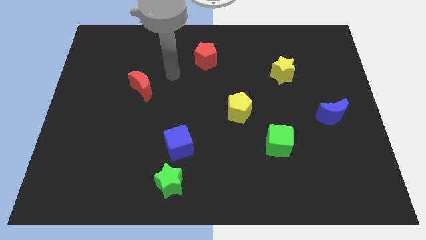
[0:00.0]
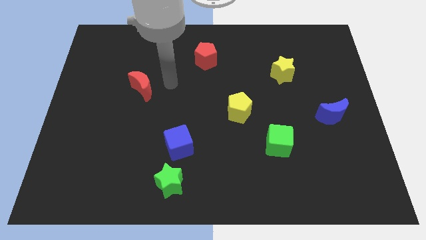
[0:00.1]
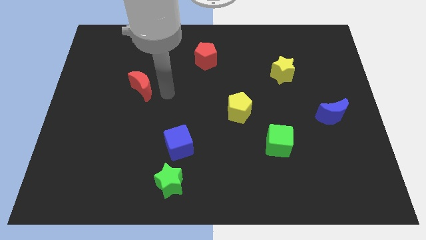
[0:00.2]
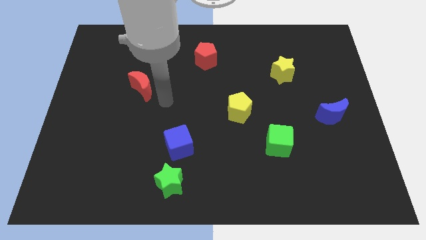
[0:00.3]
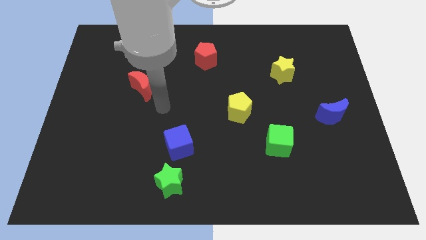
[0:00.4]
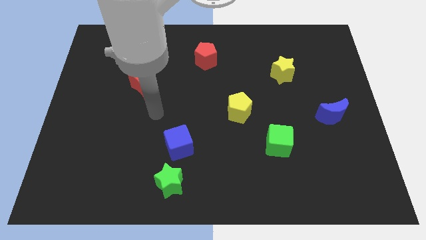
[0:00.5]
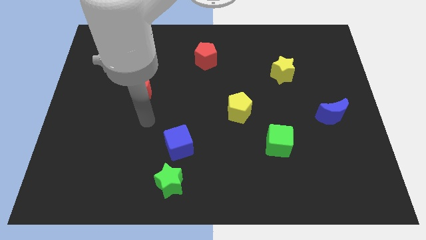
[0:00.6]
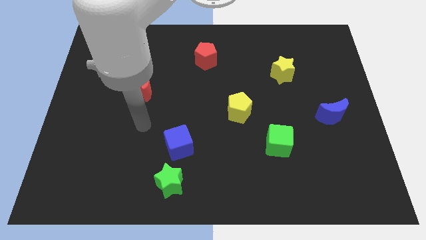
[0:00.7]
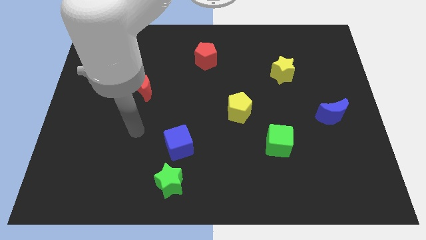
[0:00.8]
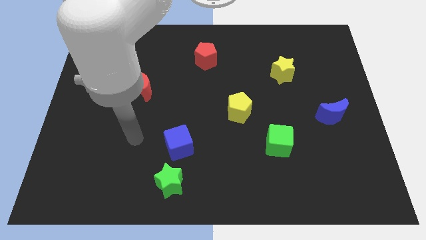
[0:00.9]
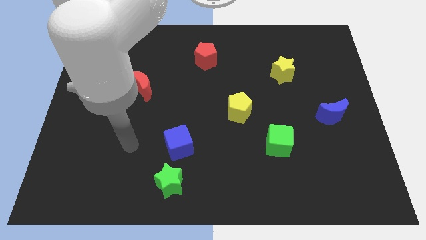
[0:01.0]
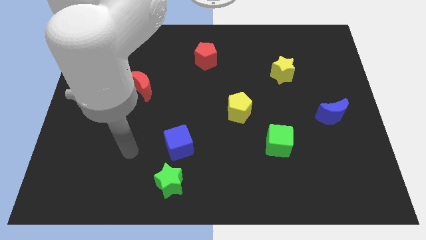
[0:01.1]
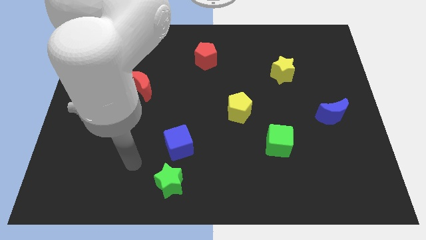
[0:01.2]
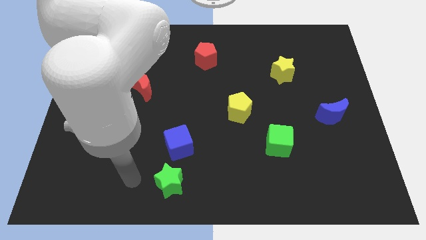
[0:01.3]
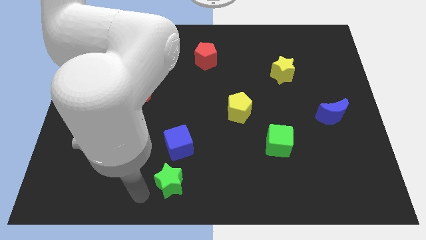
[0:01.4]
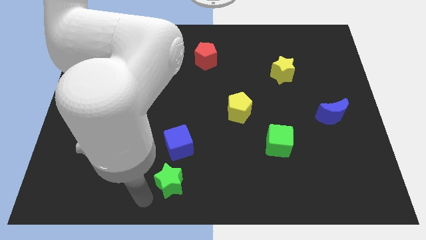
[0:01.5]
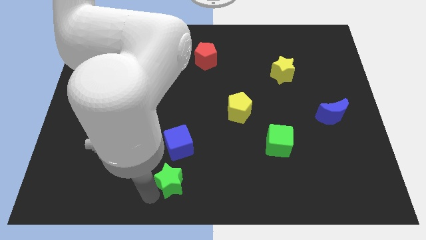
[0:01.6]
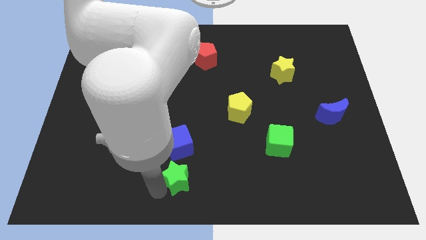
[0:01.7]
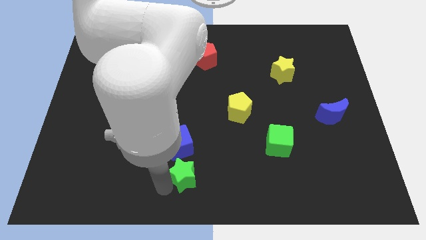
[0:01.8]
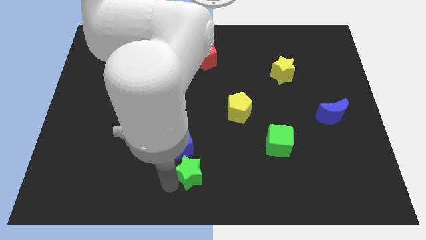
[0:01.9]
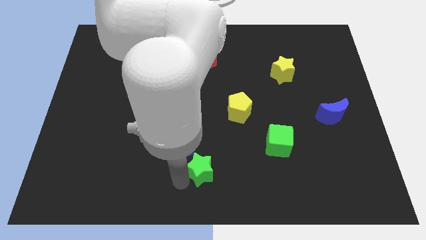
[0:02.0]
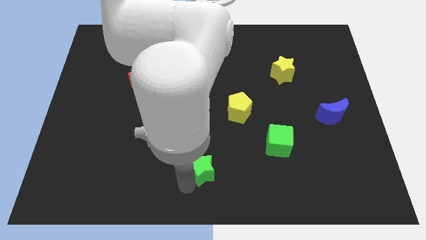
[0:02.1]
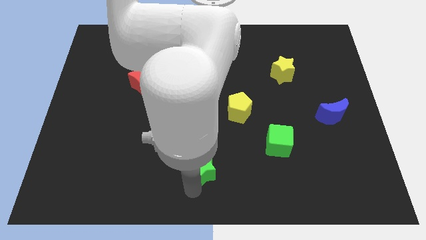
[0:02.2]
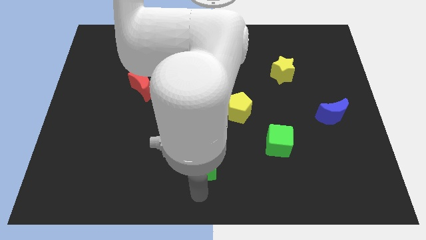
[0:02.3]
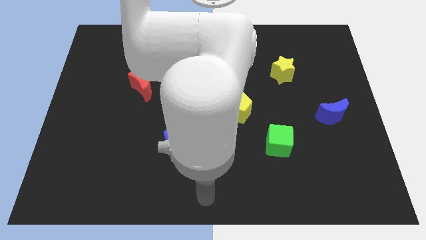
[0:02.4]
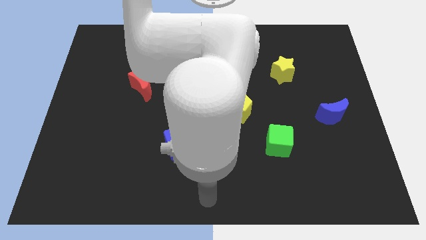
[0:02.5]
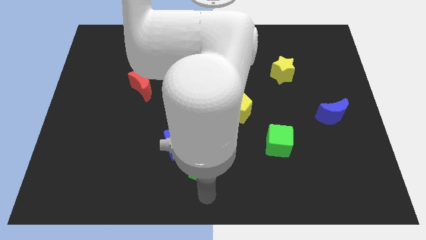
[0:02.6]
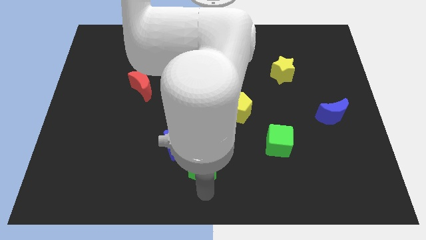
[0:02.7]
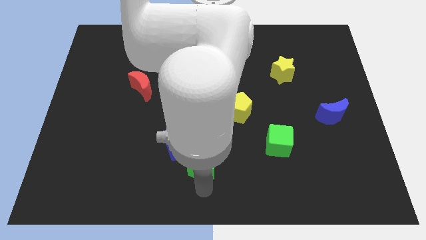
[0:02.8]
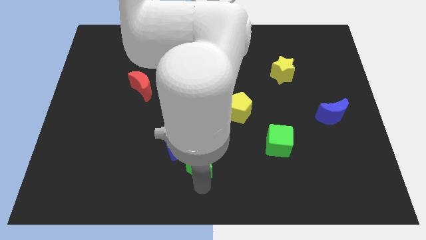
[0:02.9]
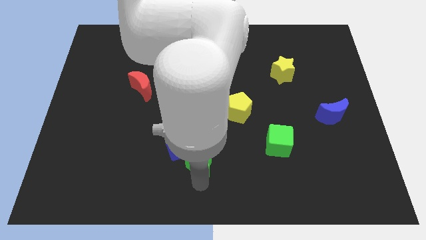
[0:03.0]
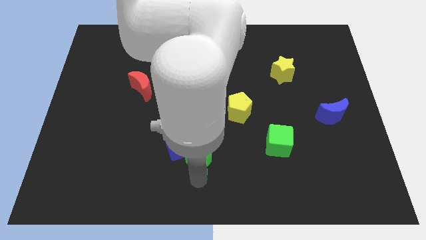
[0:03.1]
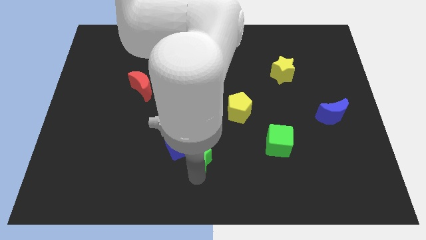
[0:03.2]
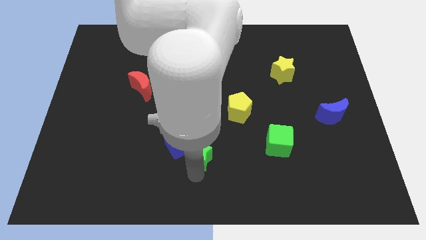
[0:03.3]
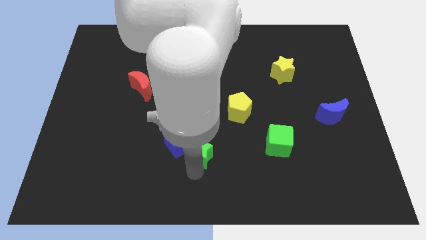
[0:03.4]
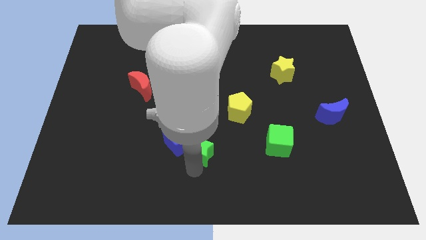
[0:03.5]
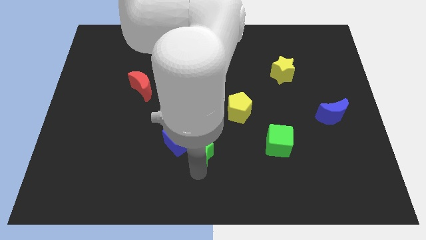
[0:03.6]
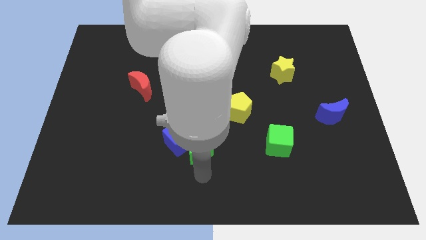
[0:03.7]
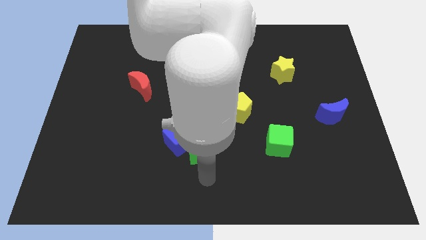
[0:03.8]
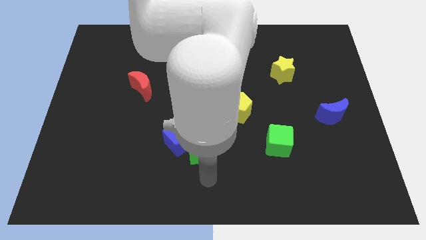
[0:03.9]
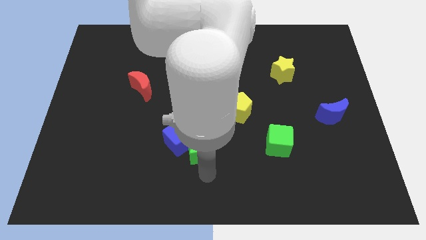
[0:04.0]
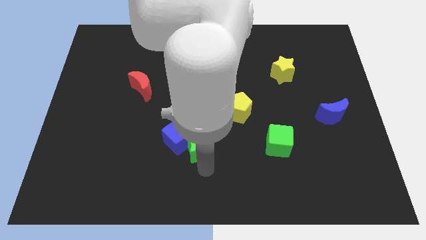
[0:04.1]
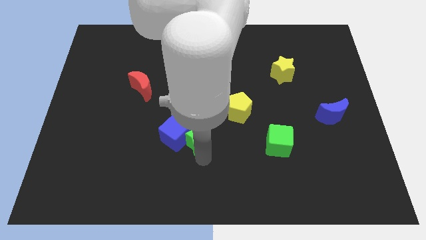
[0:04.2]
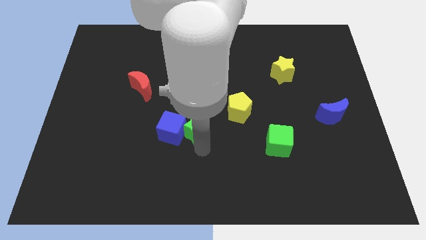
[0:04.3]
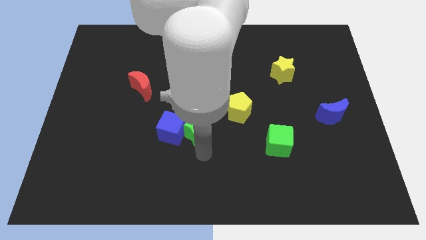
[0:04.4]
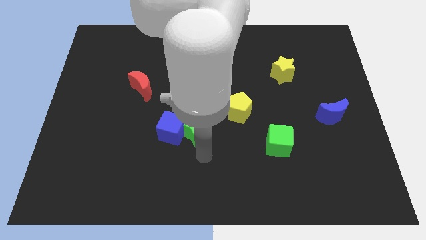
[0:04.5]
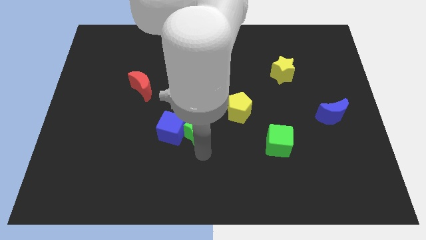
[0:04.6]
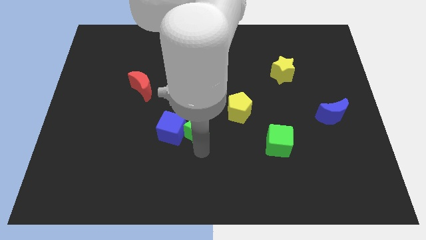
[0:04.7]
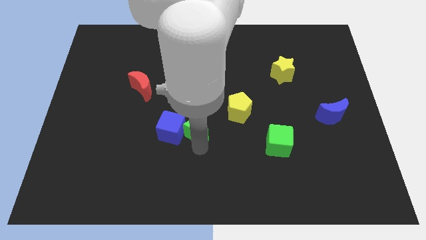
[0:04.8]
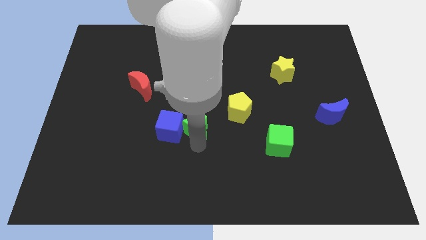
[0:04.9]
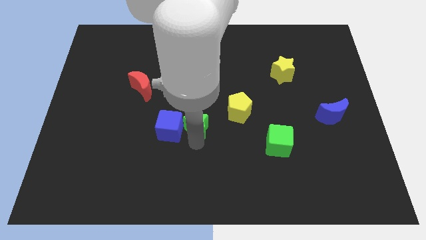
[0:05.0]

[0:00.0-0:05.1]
put the green star to the left of the yellow pentagon

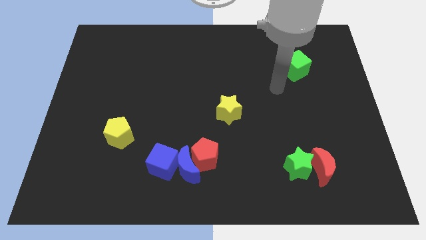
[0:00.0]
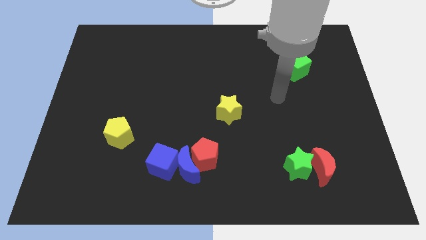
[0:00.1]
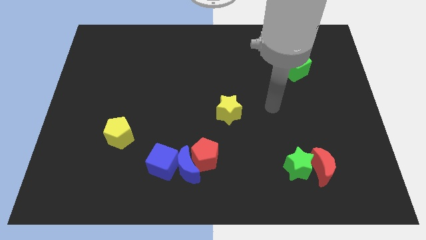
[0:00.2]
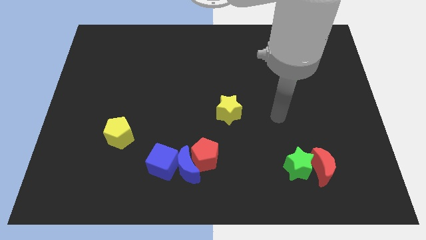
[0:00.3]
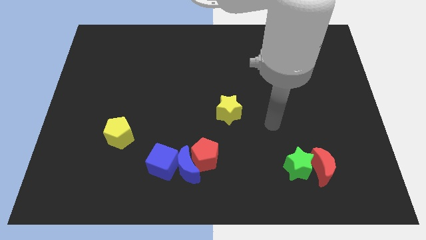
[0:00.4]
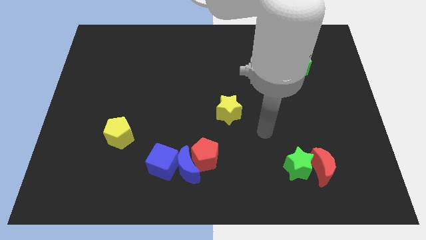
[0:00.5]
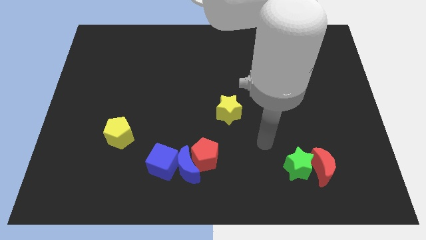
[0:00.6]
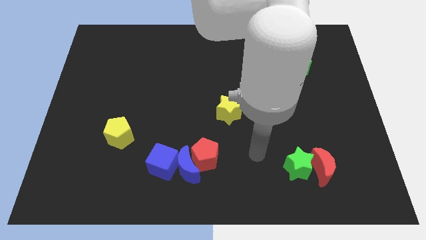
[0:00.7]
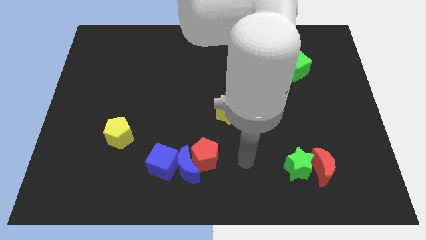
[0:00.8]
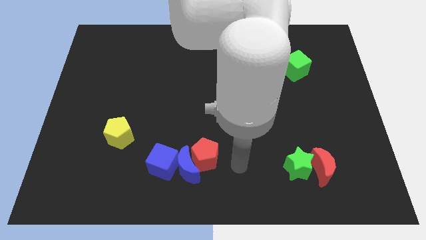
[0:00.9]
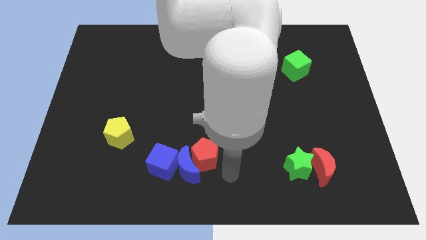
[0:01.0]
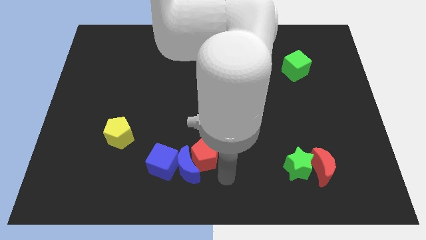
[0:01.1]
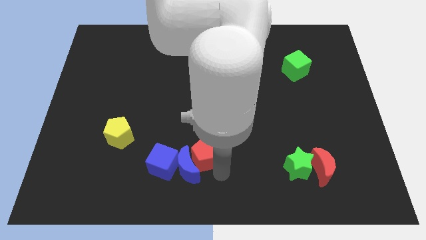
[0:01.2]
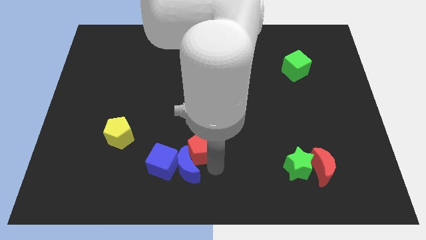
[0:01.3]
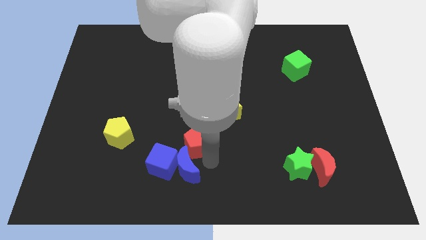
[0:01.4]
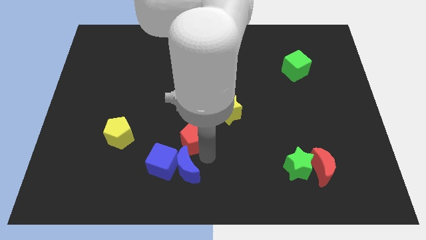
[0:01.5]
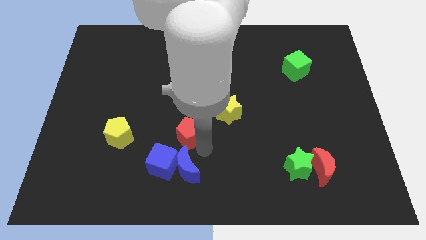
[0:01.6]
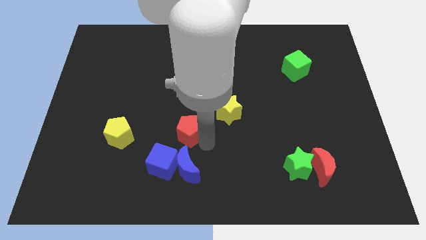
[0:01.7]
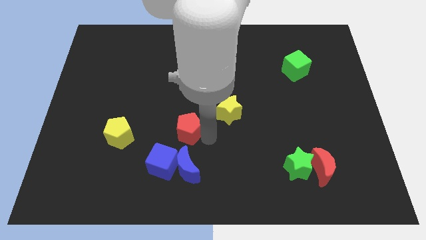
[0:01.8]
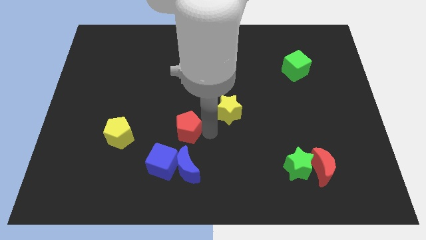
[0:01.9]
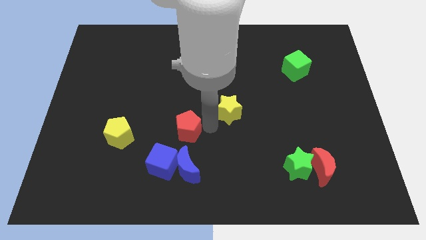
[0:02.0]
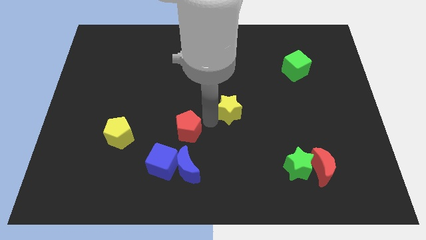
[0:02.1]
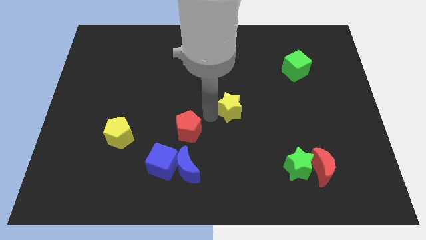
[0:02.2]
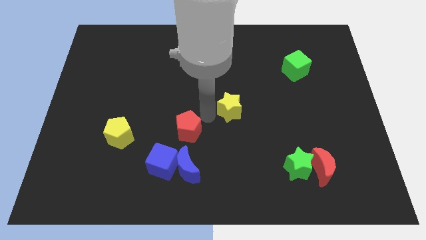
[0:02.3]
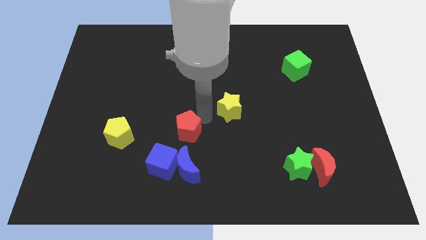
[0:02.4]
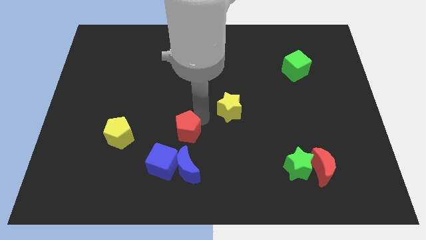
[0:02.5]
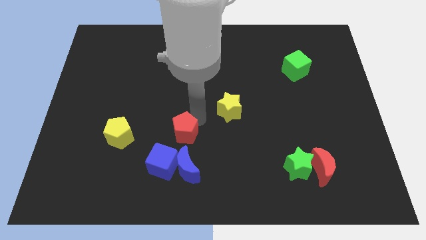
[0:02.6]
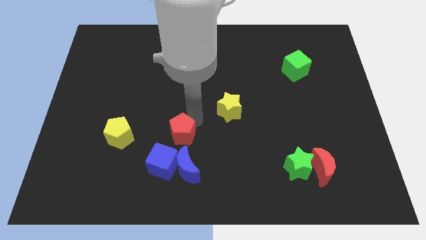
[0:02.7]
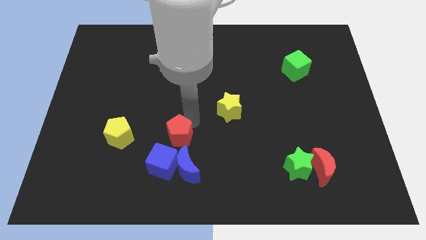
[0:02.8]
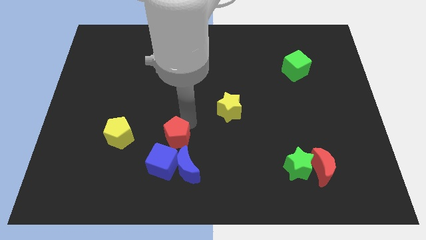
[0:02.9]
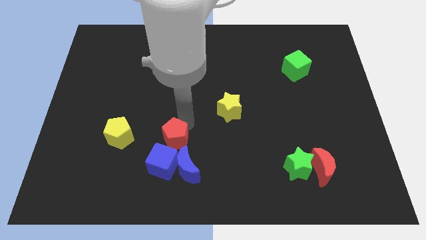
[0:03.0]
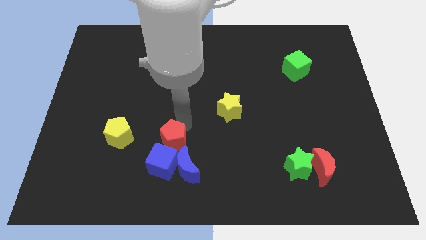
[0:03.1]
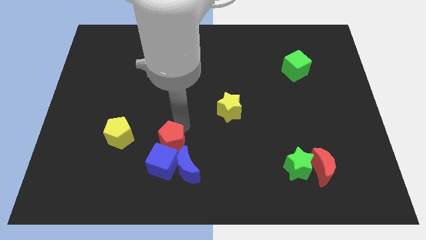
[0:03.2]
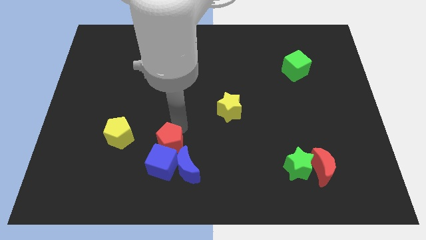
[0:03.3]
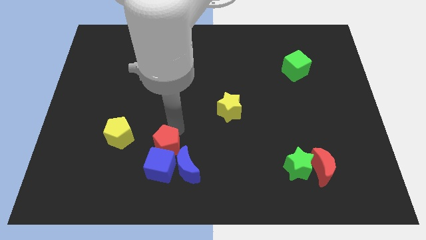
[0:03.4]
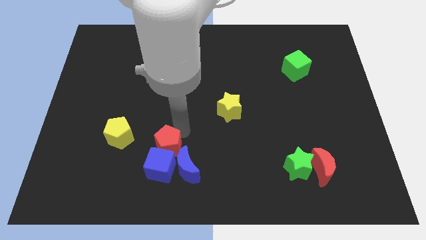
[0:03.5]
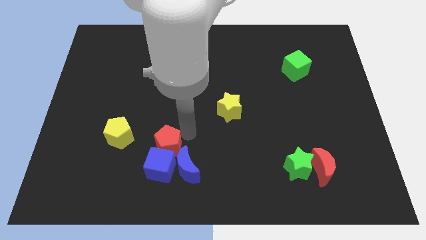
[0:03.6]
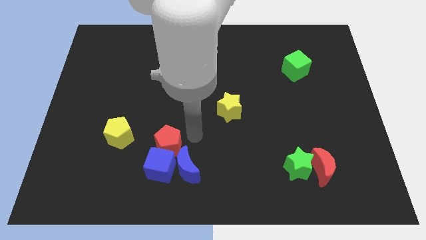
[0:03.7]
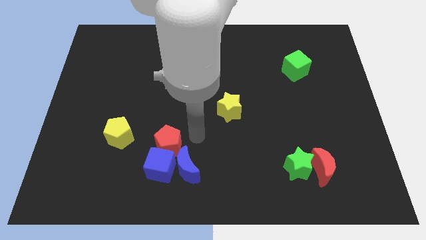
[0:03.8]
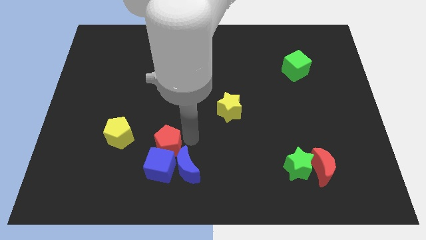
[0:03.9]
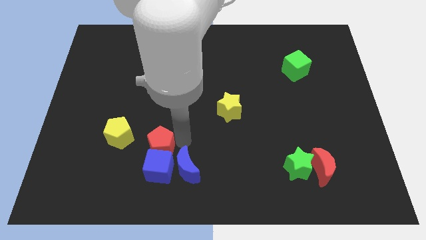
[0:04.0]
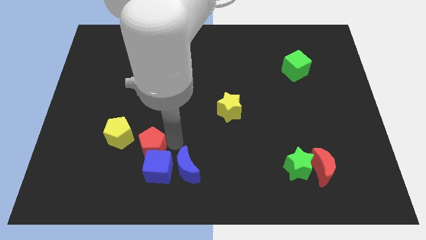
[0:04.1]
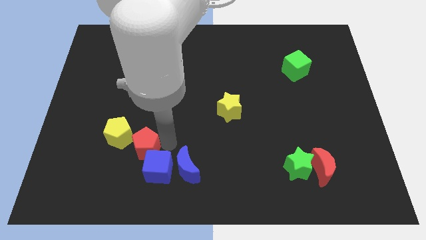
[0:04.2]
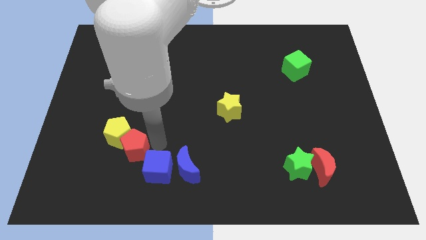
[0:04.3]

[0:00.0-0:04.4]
slide the red pentagon below the yellow pentagon
